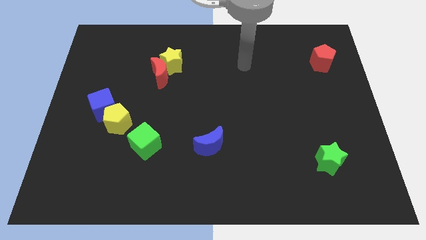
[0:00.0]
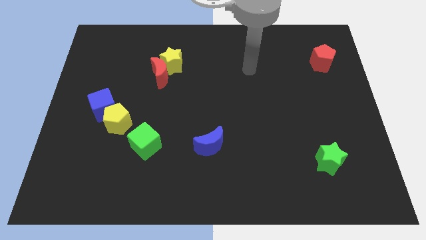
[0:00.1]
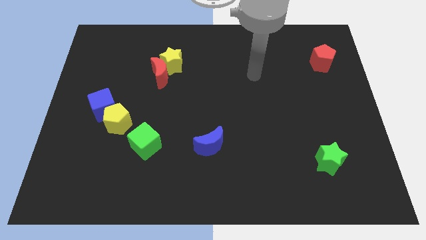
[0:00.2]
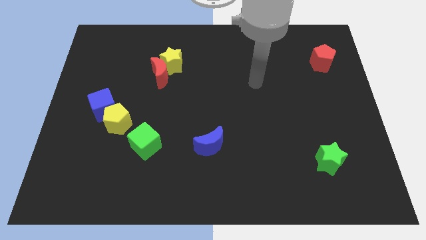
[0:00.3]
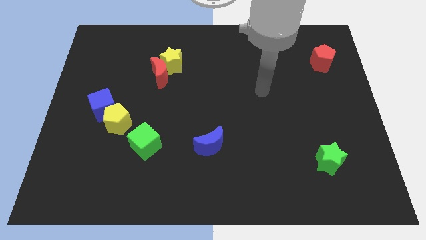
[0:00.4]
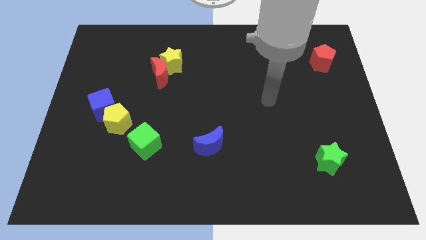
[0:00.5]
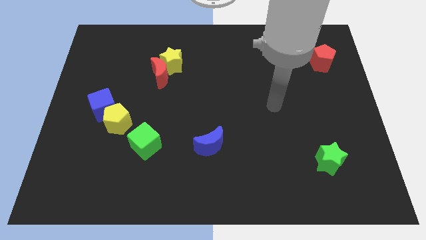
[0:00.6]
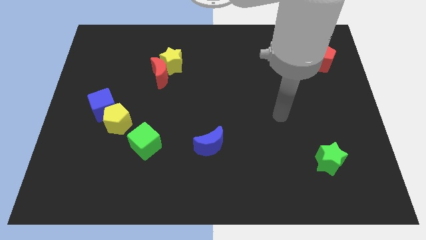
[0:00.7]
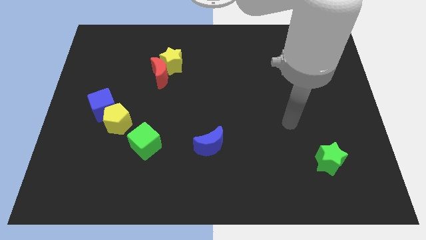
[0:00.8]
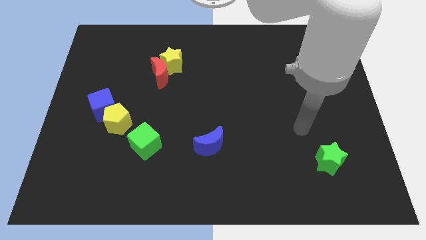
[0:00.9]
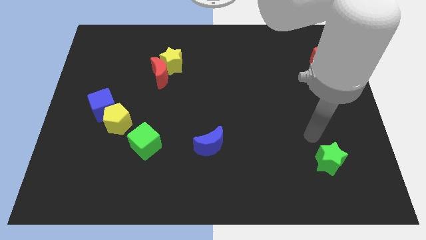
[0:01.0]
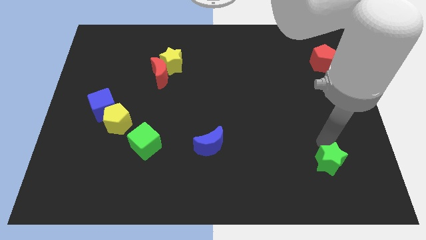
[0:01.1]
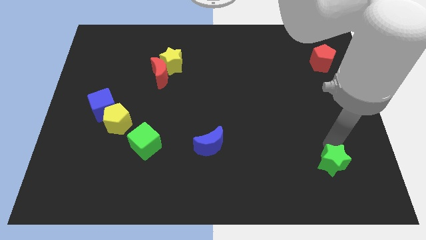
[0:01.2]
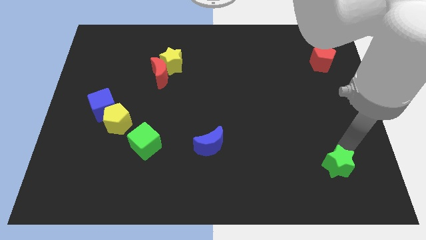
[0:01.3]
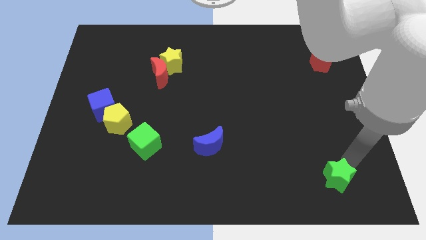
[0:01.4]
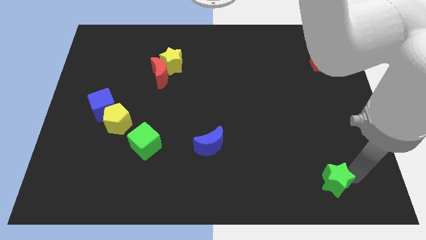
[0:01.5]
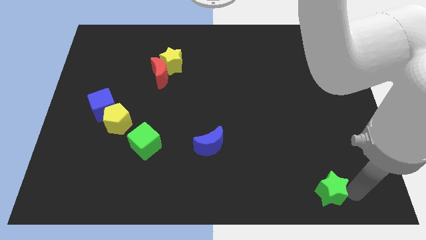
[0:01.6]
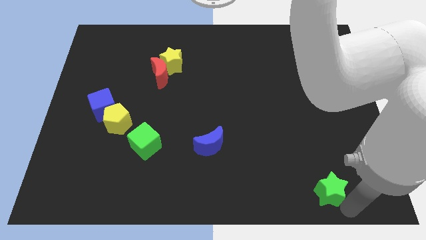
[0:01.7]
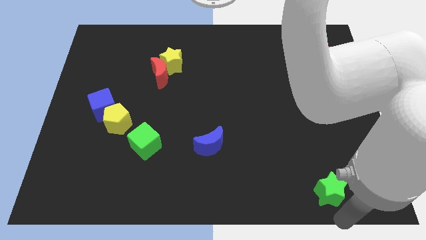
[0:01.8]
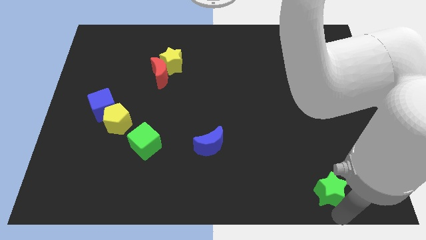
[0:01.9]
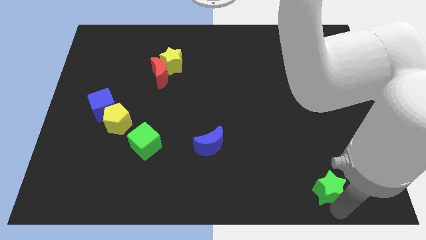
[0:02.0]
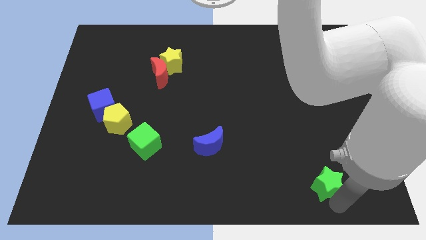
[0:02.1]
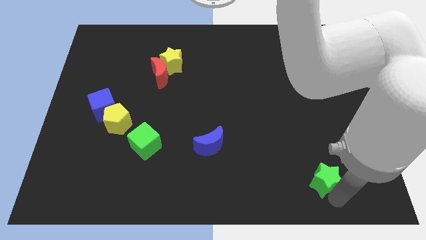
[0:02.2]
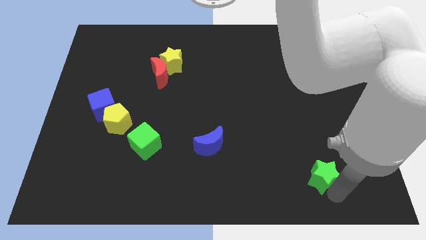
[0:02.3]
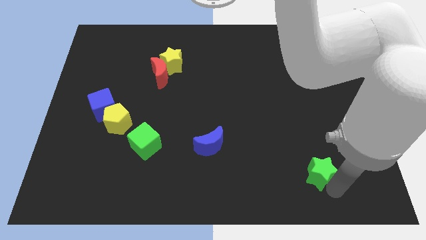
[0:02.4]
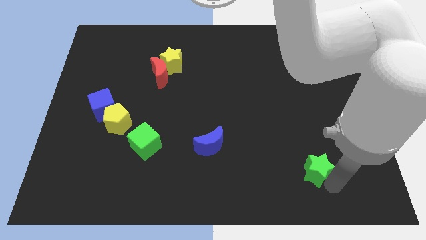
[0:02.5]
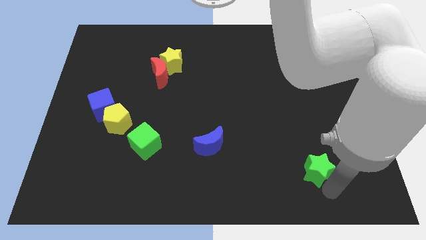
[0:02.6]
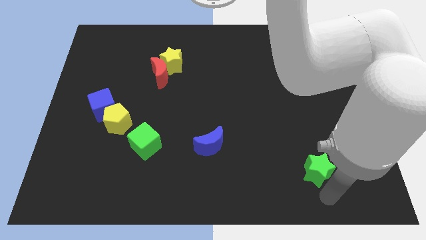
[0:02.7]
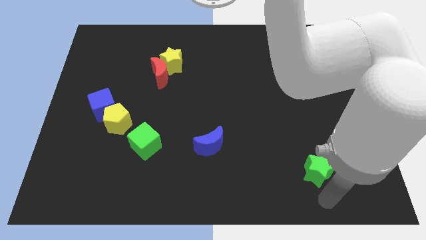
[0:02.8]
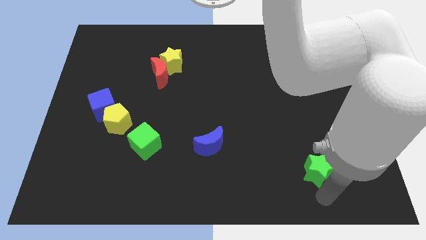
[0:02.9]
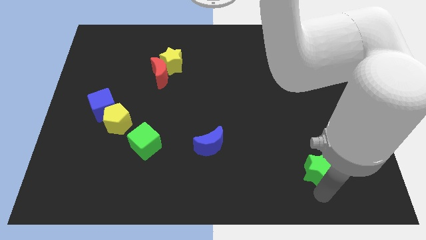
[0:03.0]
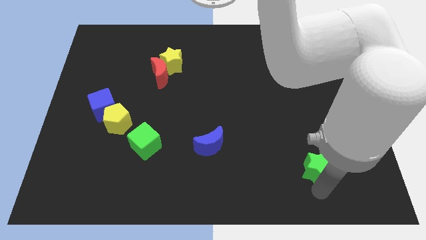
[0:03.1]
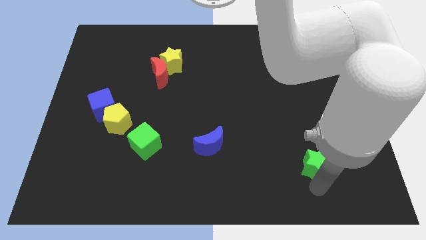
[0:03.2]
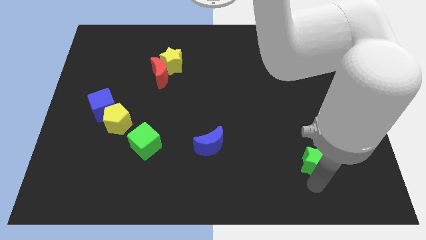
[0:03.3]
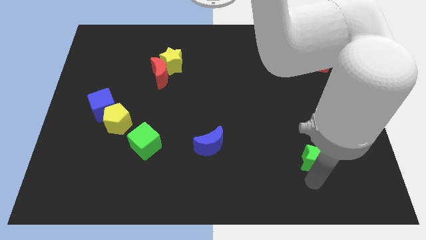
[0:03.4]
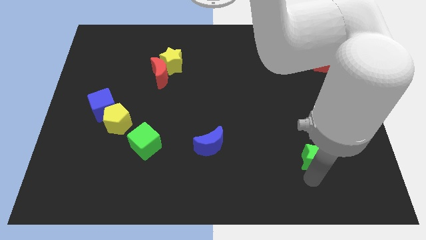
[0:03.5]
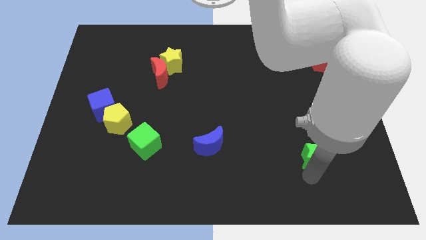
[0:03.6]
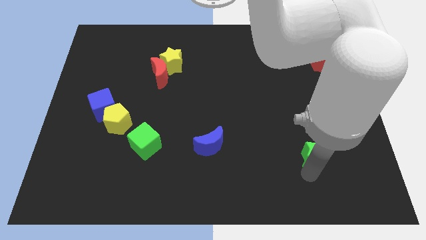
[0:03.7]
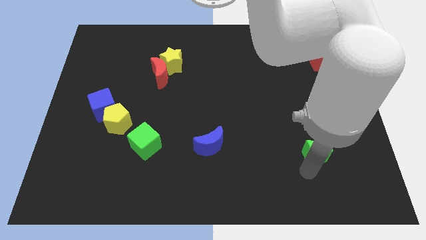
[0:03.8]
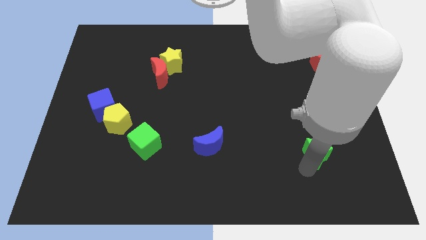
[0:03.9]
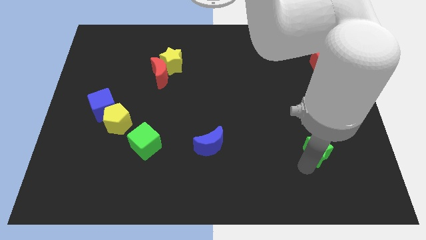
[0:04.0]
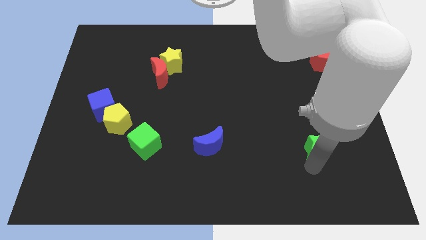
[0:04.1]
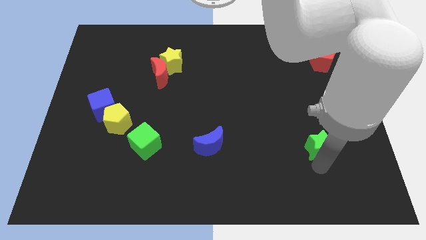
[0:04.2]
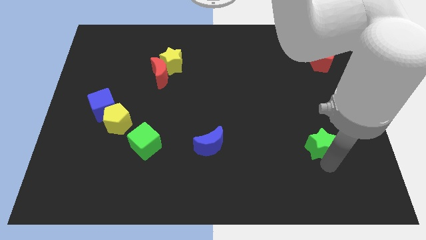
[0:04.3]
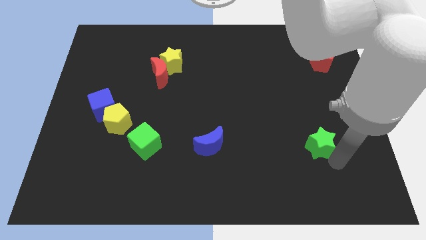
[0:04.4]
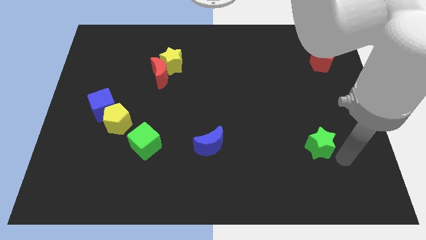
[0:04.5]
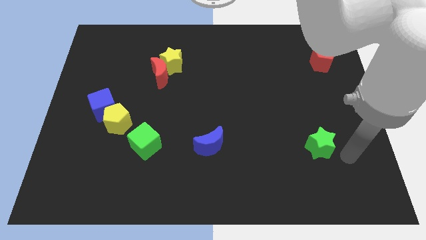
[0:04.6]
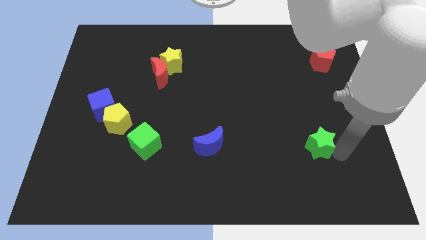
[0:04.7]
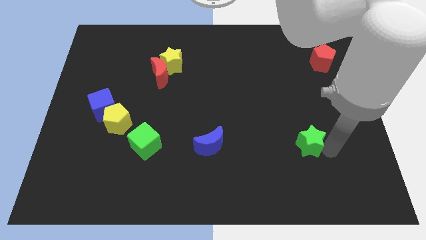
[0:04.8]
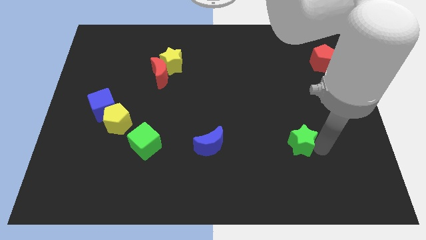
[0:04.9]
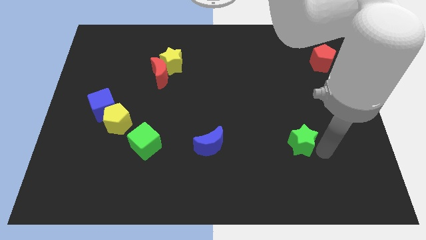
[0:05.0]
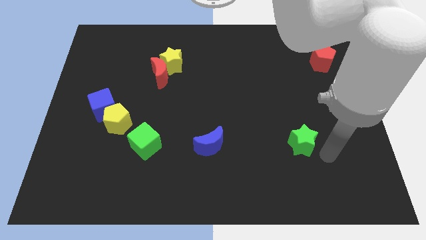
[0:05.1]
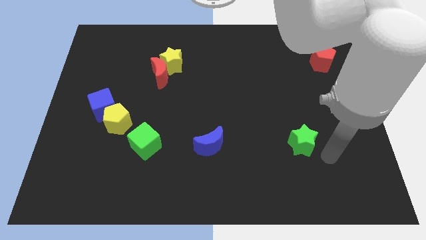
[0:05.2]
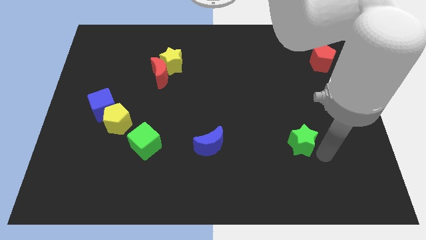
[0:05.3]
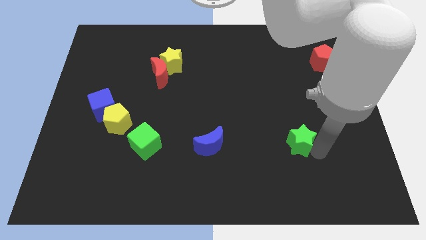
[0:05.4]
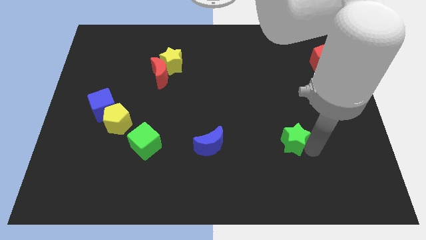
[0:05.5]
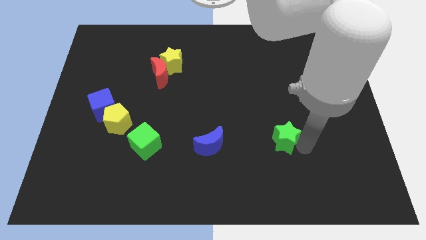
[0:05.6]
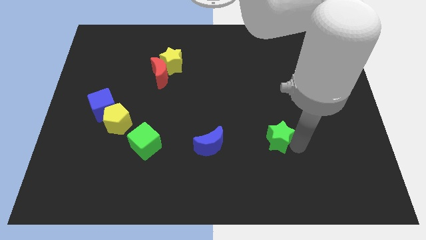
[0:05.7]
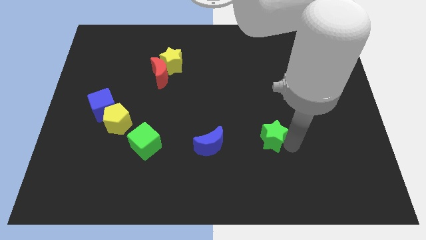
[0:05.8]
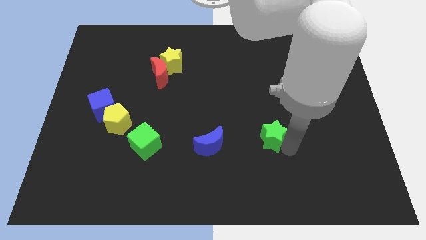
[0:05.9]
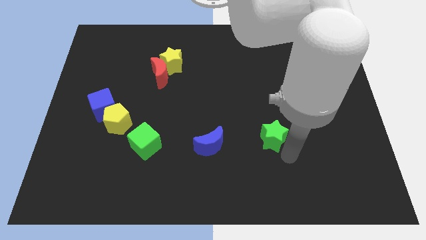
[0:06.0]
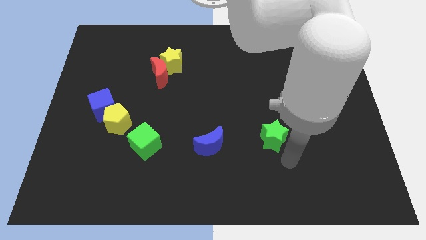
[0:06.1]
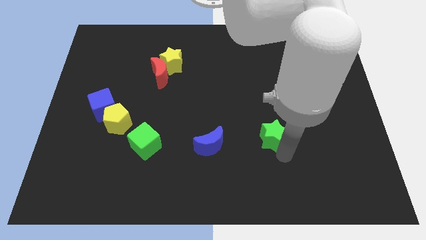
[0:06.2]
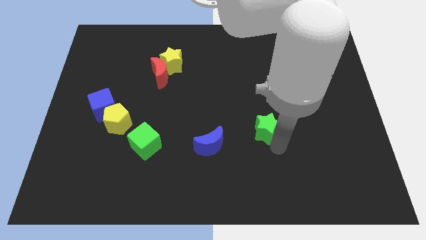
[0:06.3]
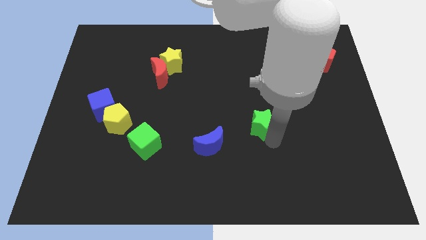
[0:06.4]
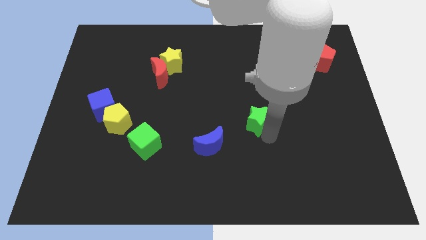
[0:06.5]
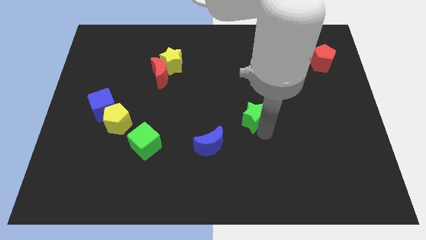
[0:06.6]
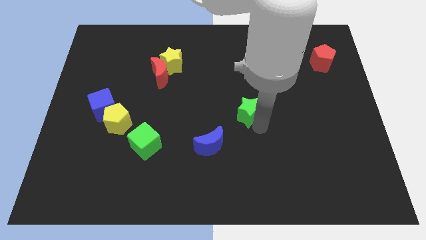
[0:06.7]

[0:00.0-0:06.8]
push the green star upwards and left diagonally

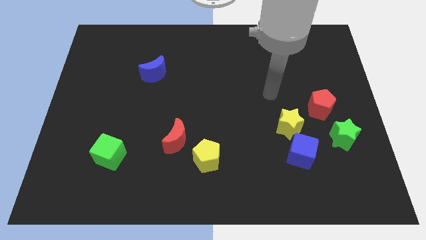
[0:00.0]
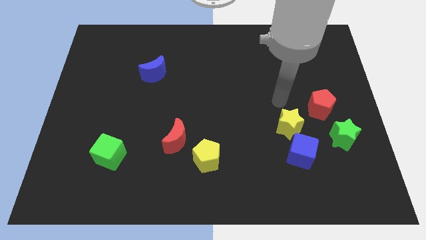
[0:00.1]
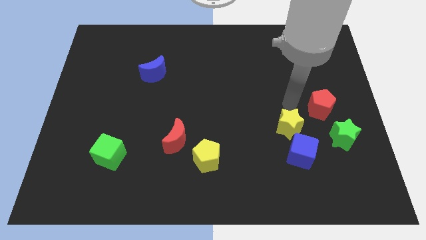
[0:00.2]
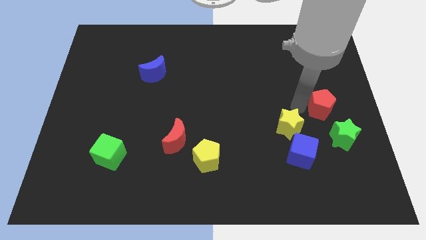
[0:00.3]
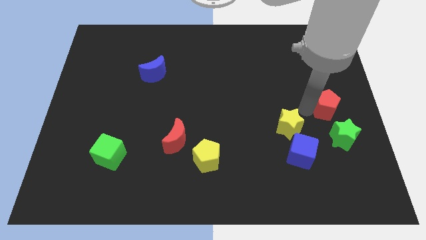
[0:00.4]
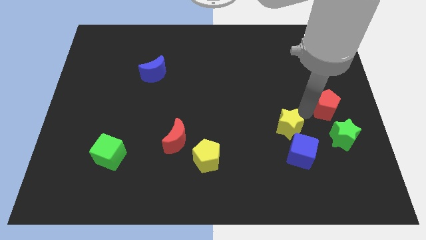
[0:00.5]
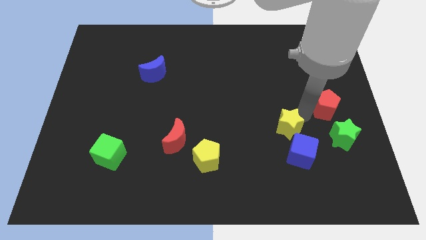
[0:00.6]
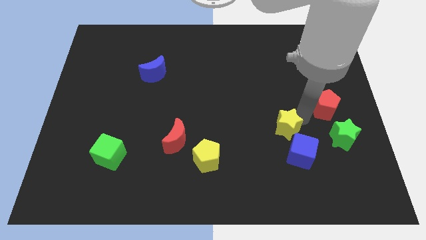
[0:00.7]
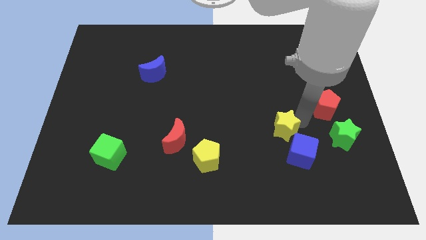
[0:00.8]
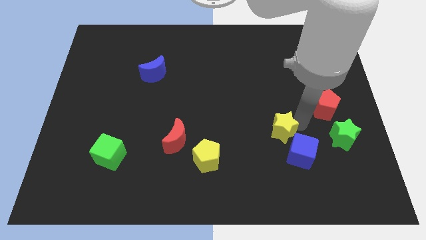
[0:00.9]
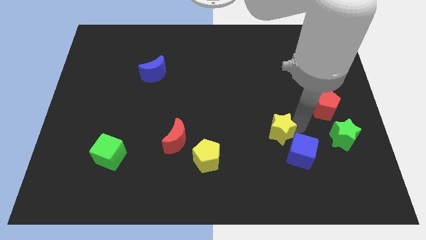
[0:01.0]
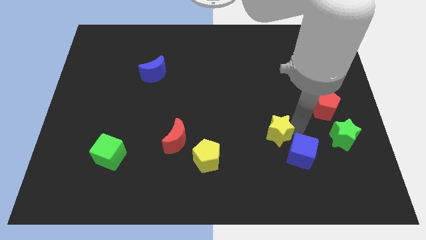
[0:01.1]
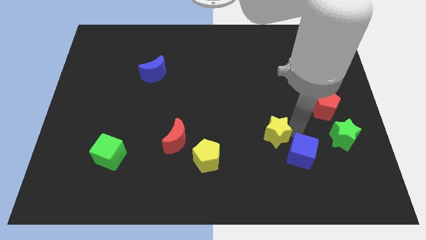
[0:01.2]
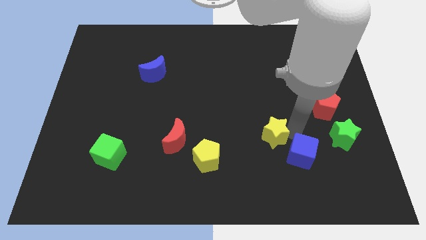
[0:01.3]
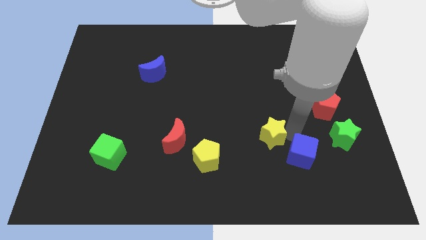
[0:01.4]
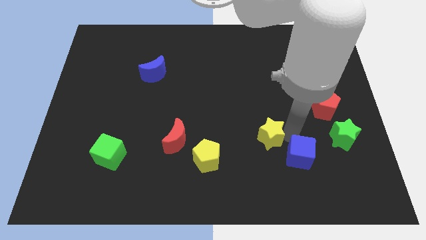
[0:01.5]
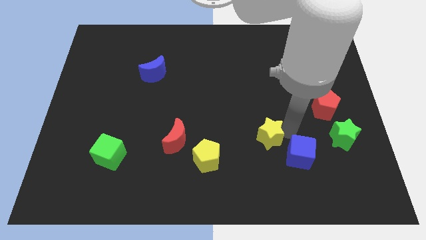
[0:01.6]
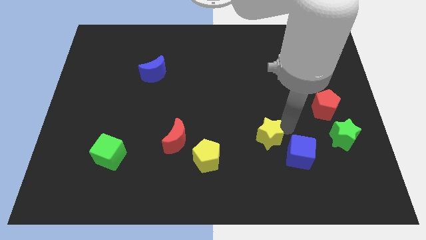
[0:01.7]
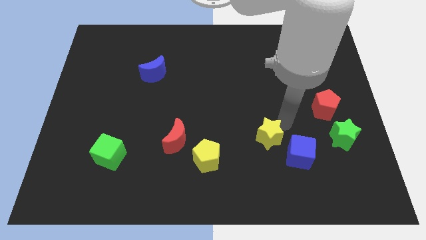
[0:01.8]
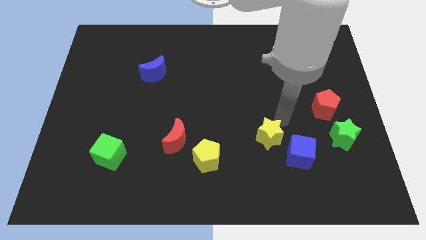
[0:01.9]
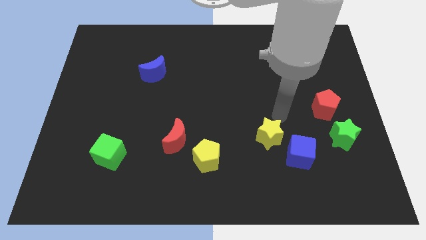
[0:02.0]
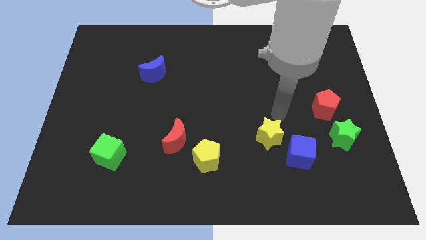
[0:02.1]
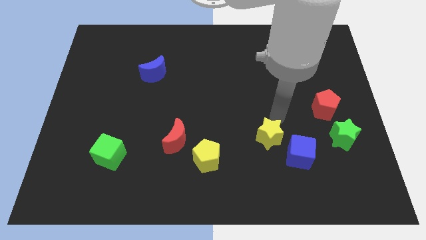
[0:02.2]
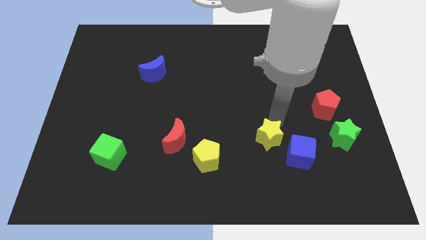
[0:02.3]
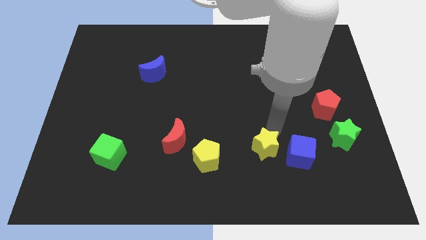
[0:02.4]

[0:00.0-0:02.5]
push the yellow star slightly down and left
